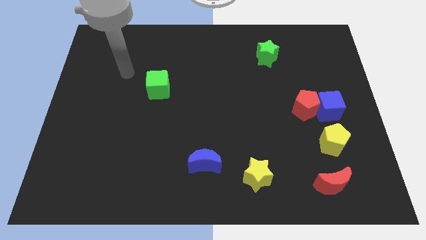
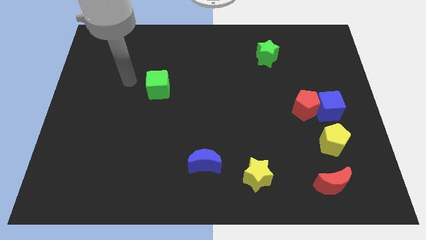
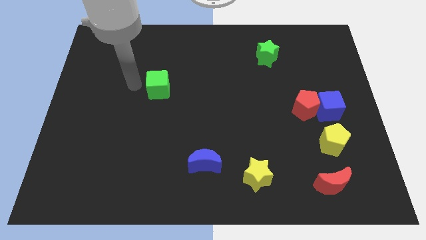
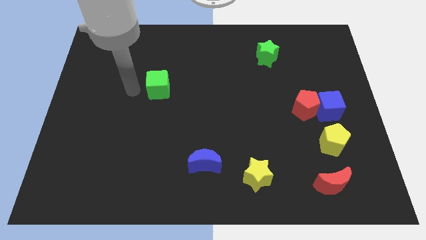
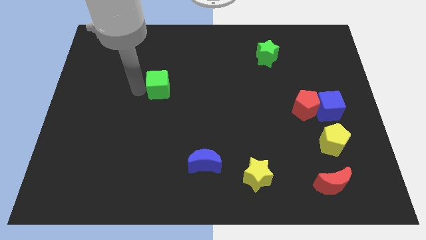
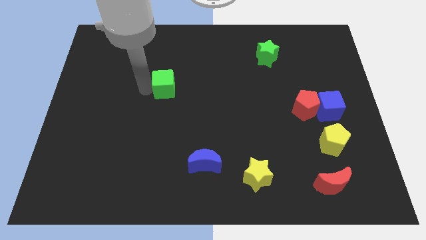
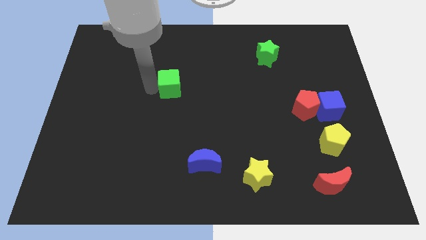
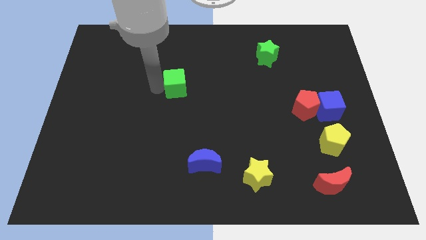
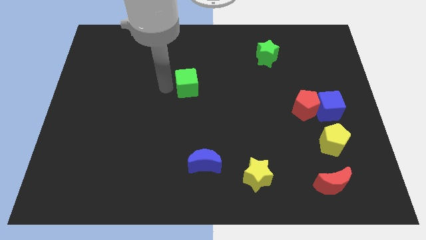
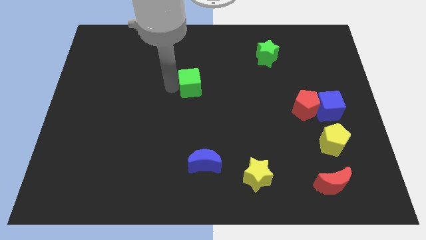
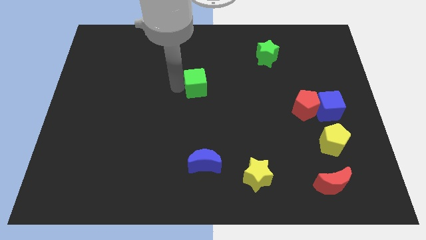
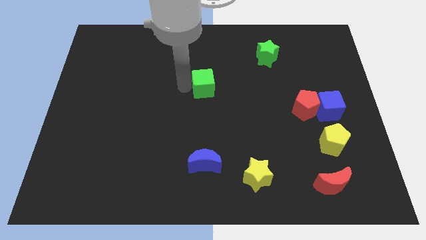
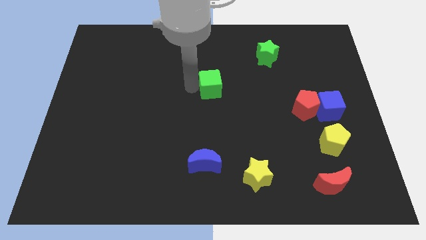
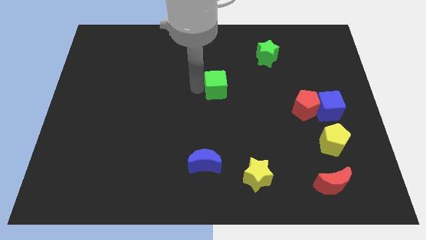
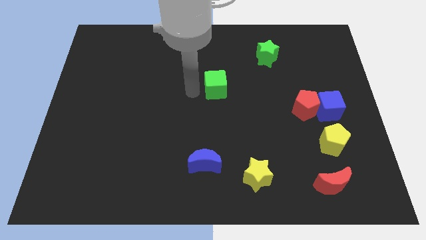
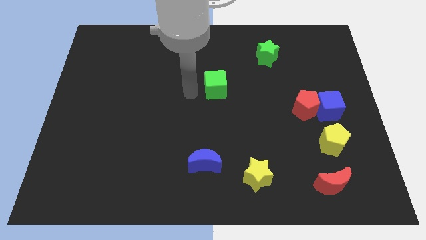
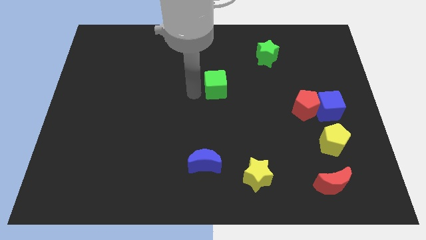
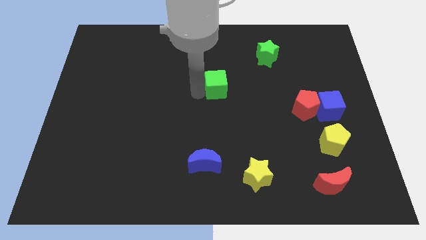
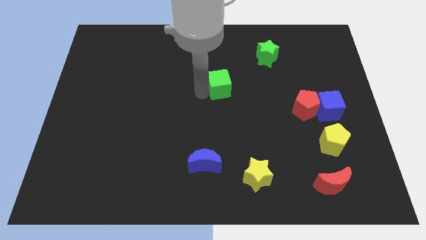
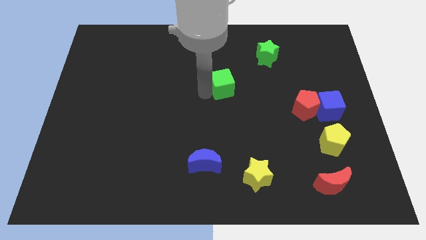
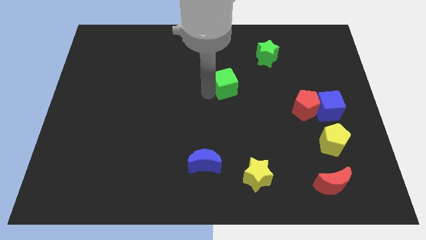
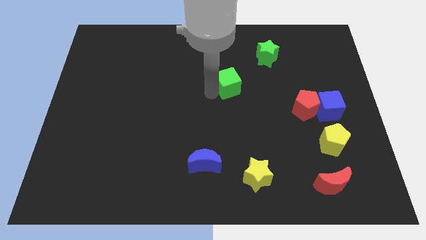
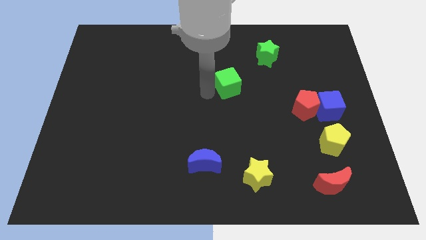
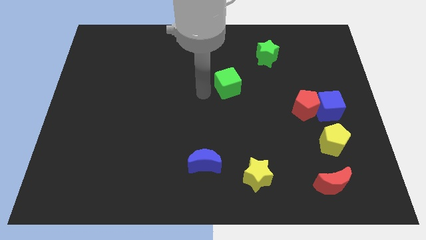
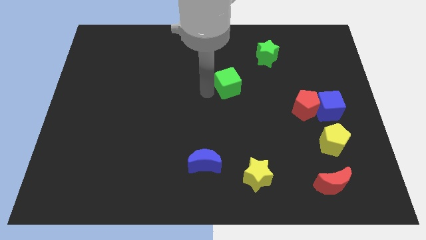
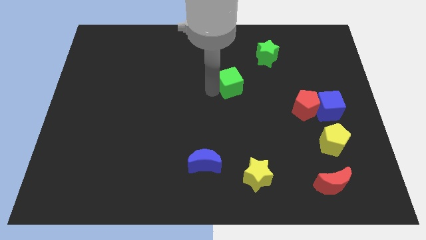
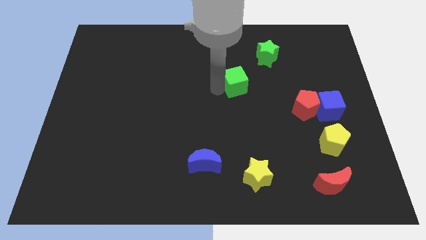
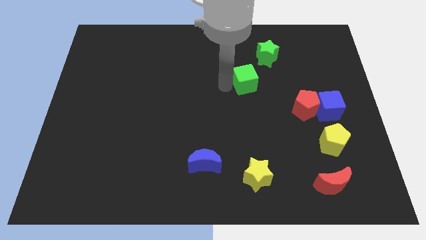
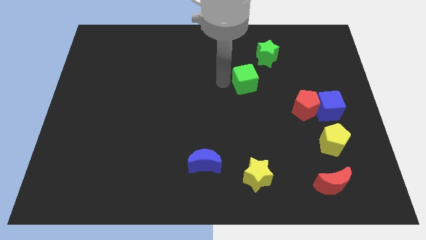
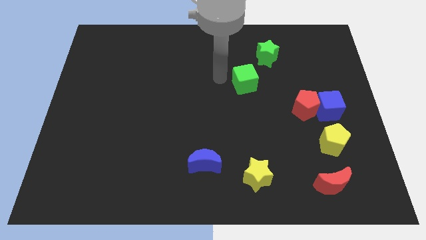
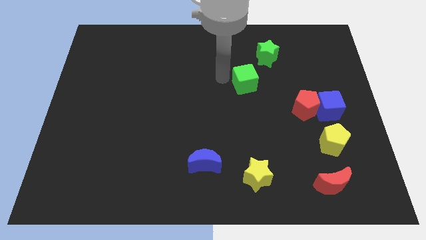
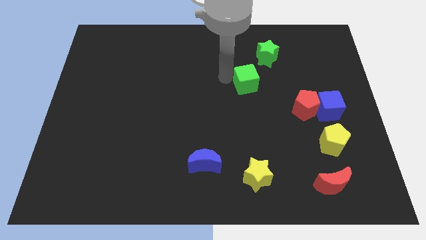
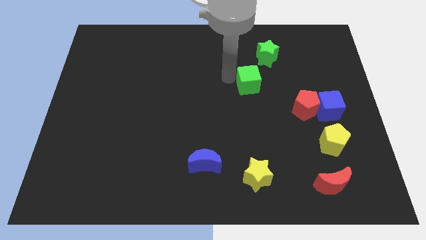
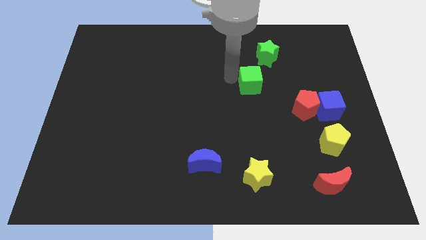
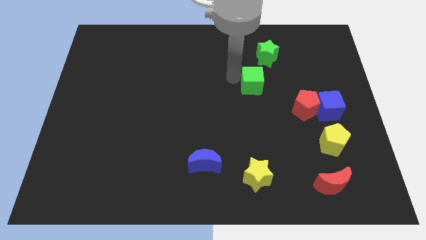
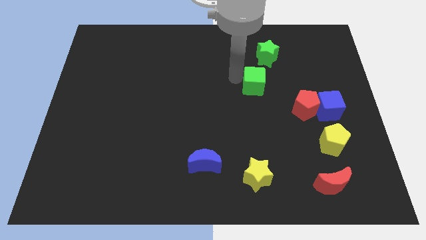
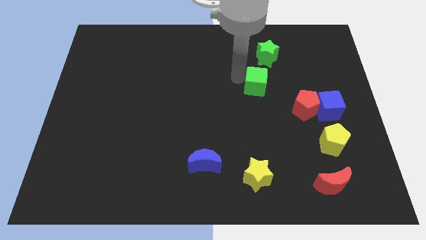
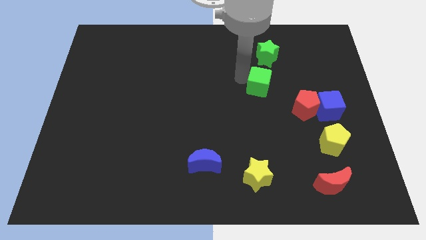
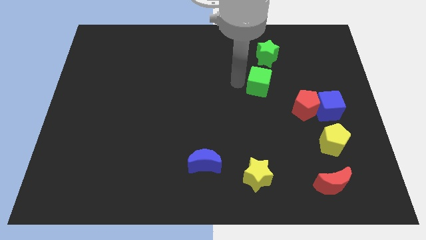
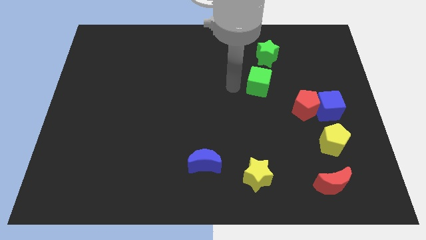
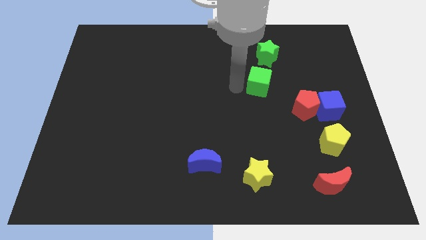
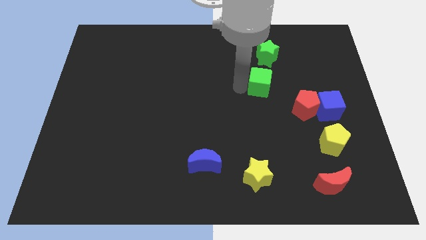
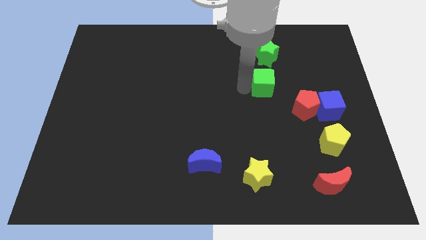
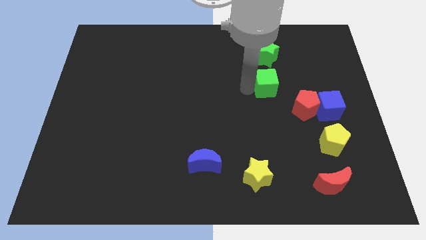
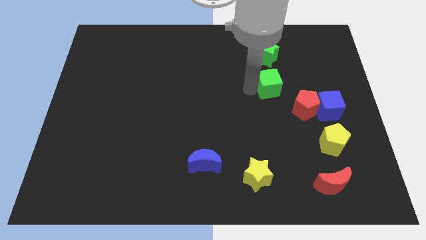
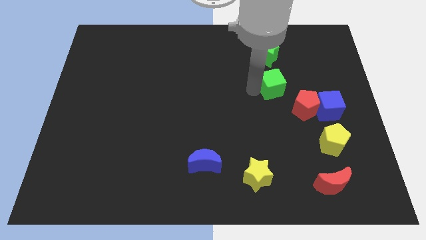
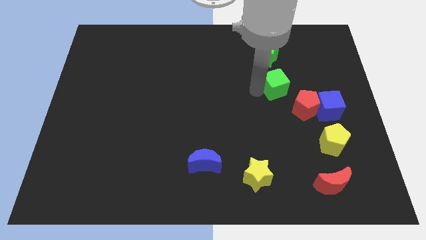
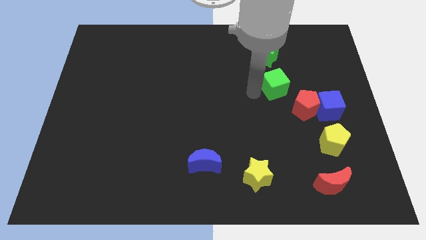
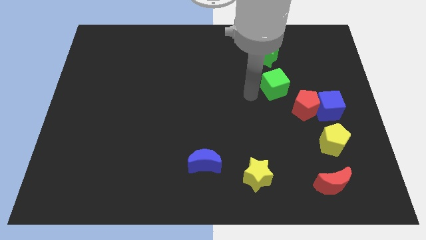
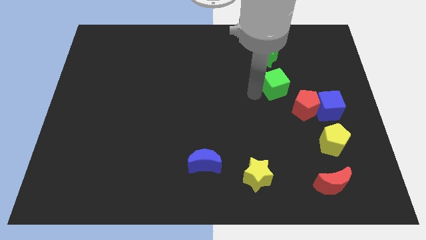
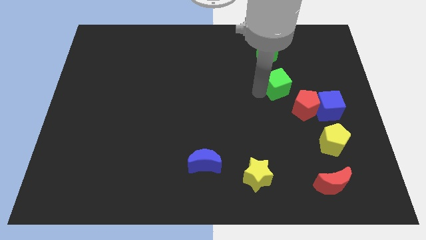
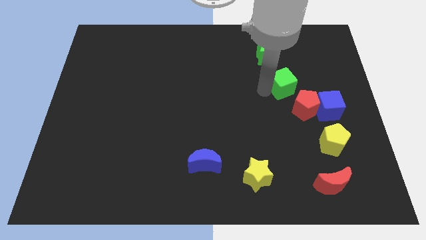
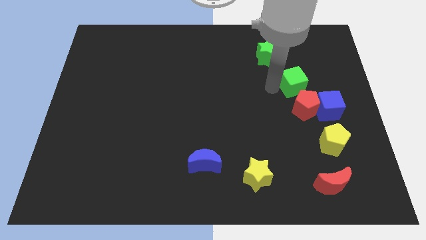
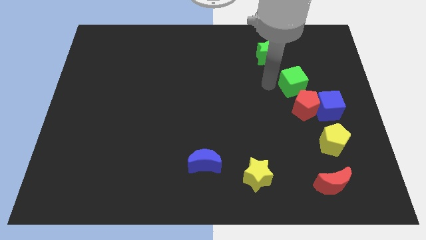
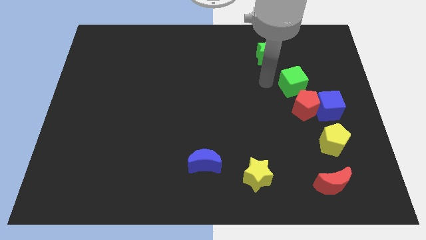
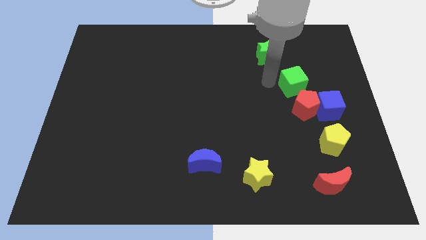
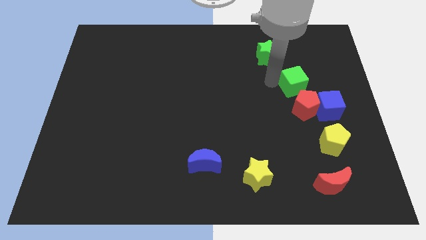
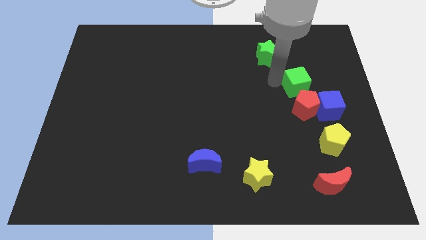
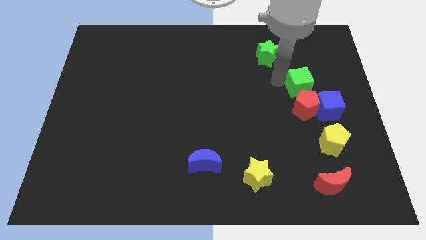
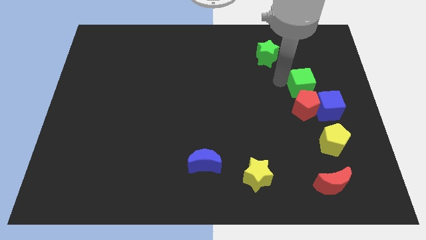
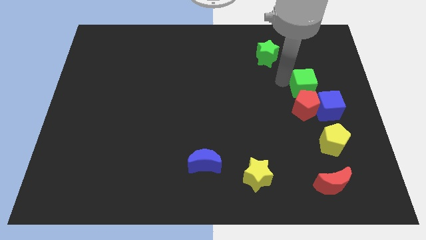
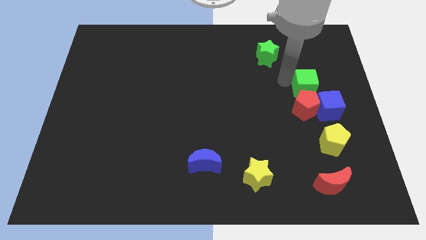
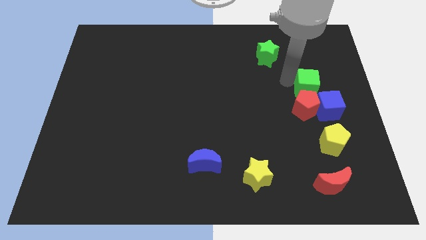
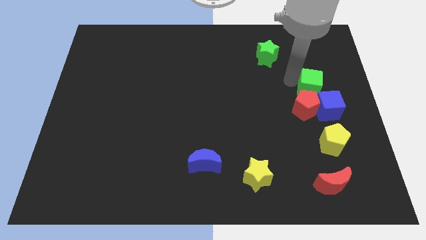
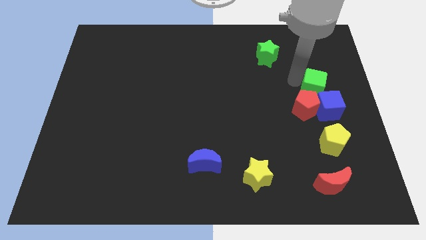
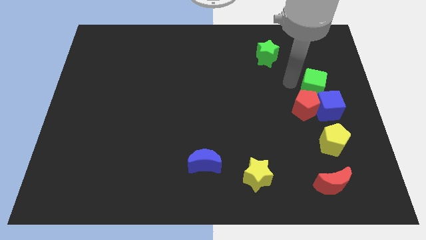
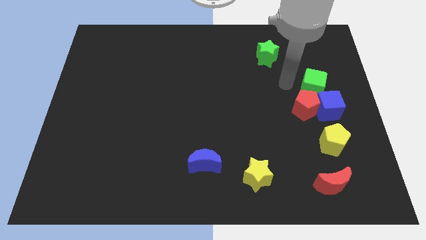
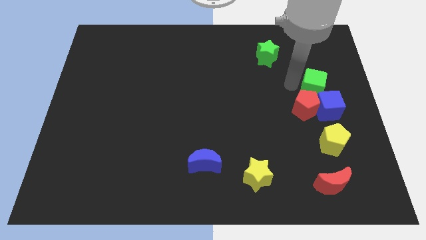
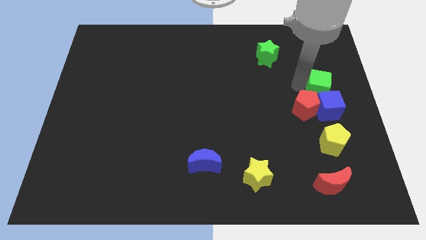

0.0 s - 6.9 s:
push the green cube to the center right
